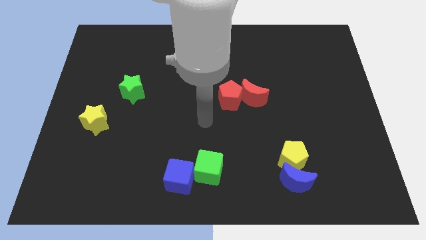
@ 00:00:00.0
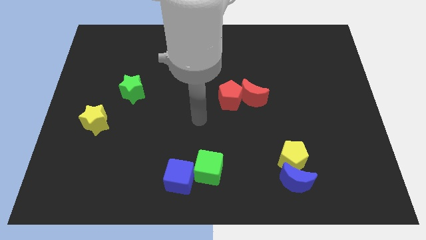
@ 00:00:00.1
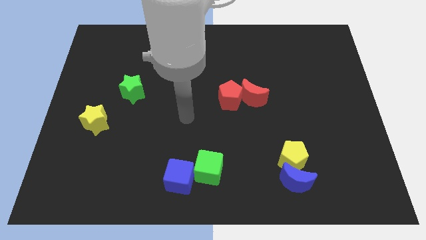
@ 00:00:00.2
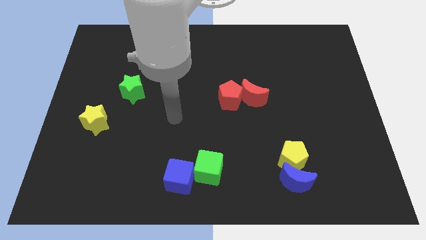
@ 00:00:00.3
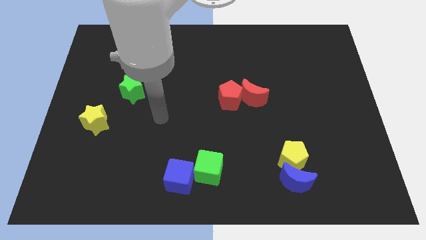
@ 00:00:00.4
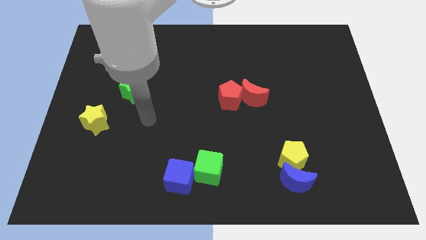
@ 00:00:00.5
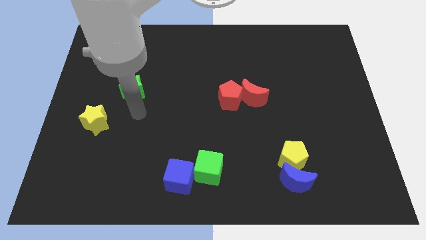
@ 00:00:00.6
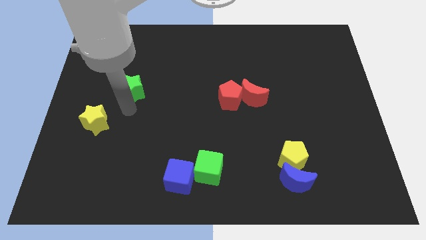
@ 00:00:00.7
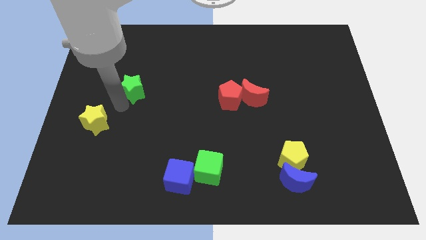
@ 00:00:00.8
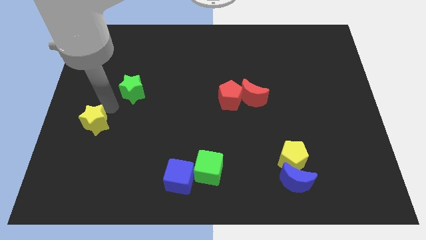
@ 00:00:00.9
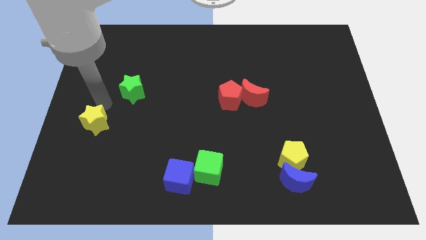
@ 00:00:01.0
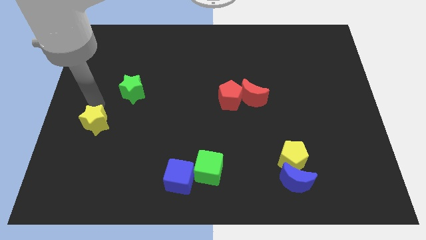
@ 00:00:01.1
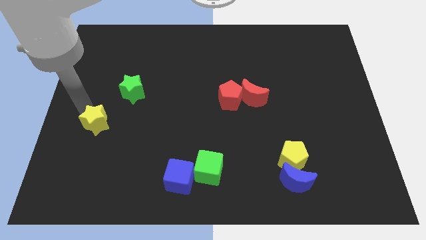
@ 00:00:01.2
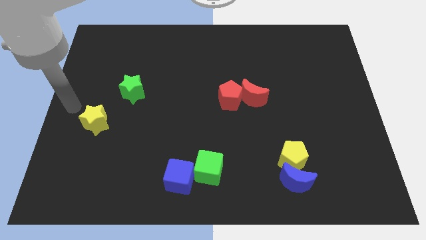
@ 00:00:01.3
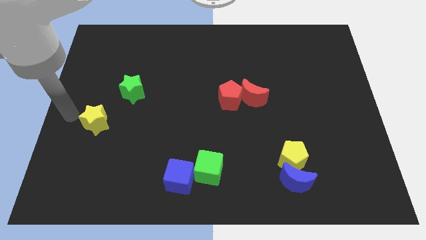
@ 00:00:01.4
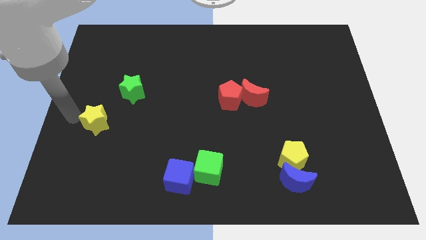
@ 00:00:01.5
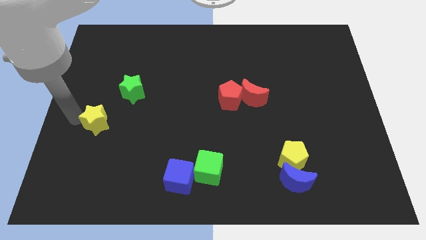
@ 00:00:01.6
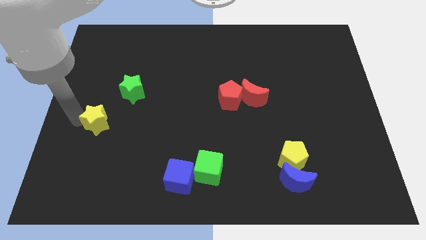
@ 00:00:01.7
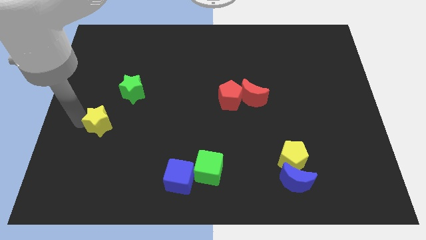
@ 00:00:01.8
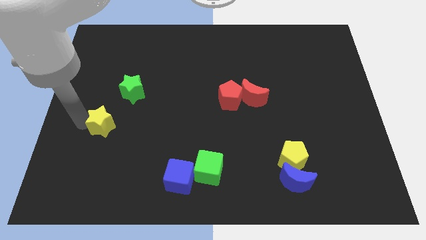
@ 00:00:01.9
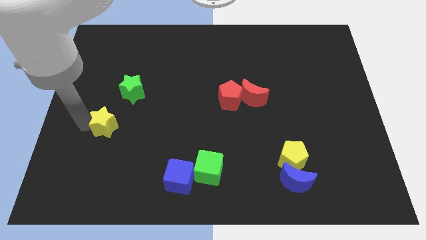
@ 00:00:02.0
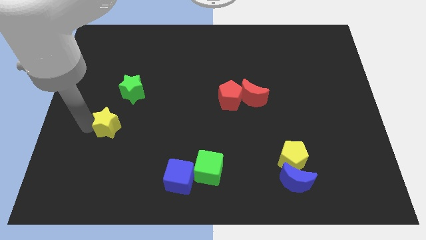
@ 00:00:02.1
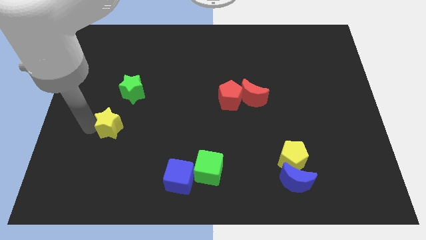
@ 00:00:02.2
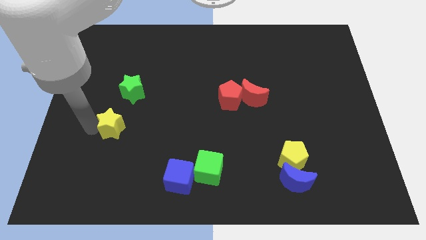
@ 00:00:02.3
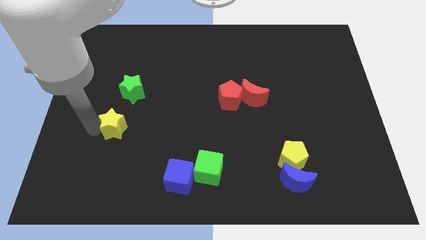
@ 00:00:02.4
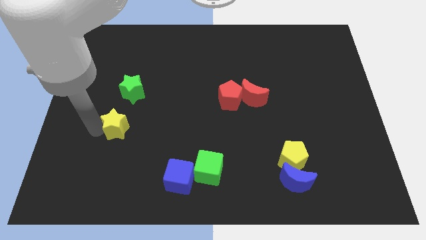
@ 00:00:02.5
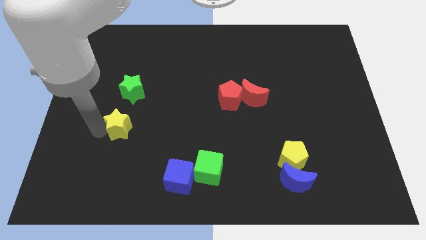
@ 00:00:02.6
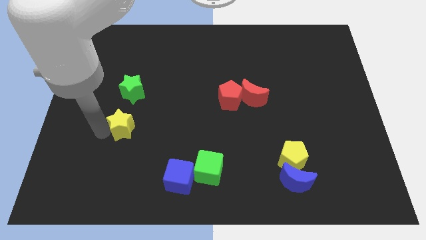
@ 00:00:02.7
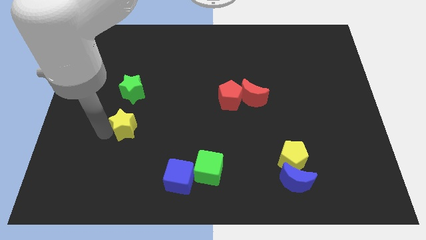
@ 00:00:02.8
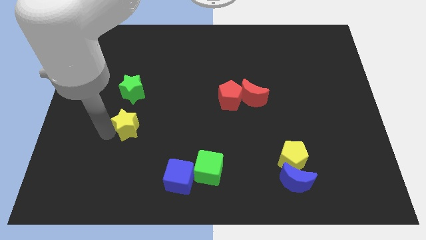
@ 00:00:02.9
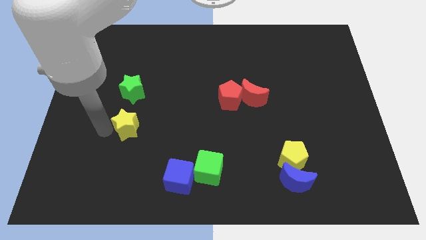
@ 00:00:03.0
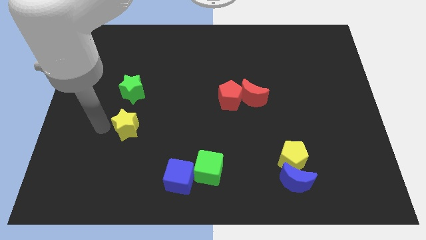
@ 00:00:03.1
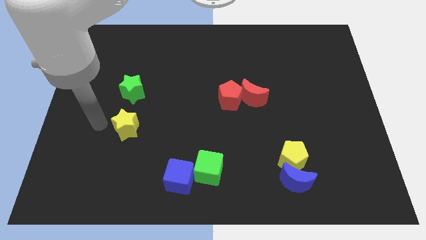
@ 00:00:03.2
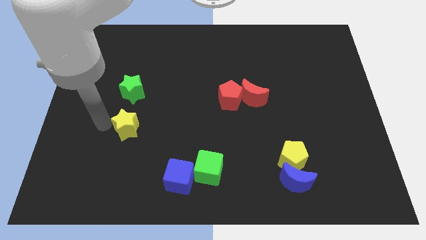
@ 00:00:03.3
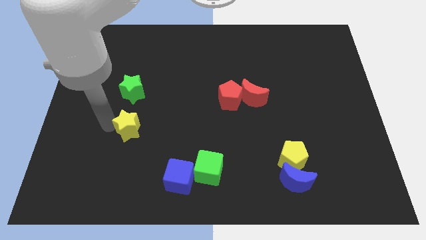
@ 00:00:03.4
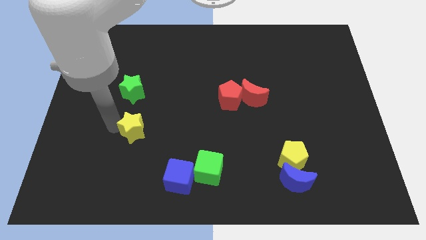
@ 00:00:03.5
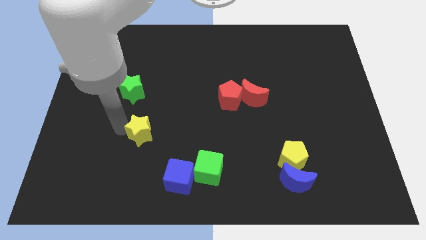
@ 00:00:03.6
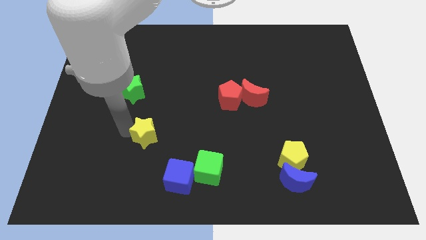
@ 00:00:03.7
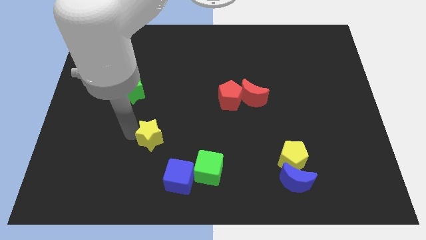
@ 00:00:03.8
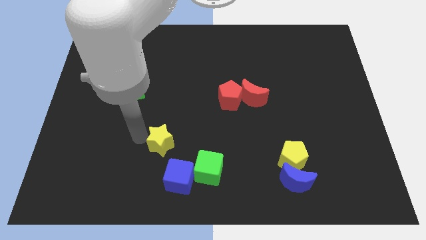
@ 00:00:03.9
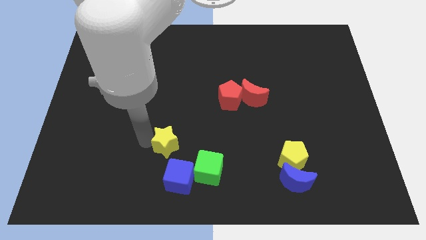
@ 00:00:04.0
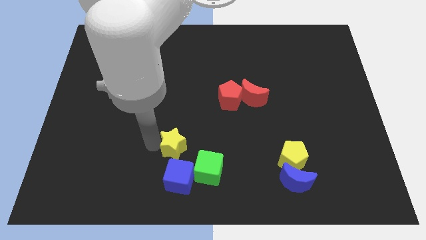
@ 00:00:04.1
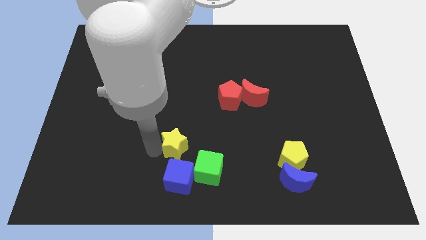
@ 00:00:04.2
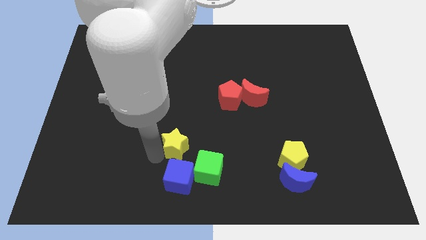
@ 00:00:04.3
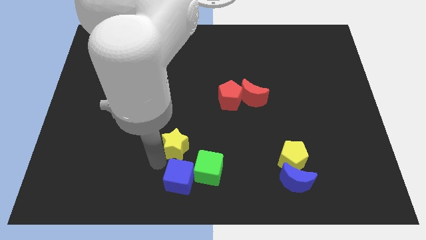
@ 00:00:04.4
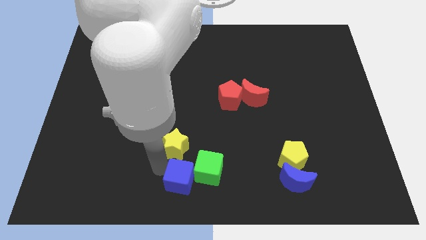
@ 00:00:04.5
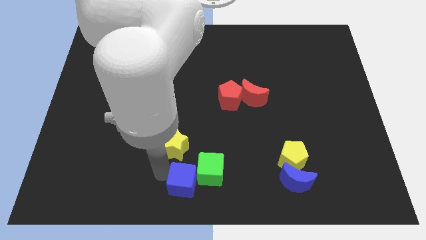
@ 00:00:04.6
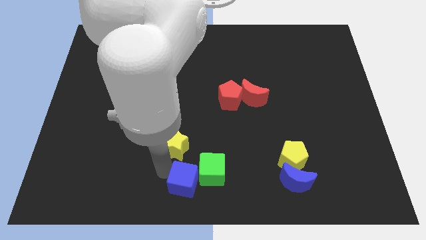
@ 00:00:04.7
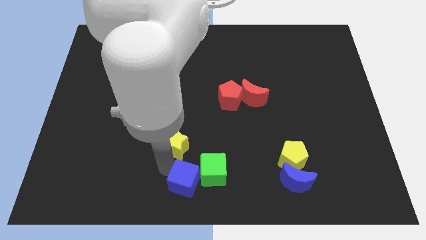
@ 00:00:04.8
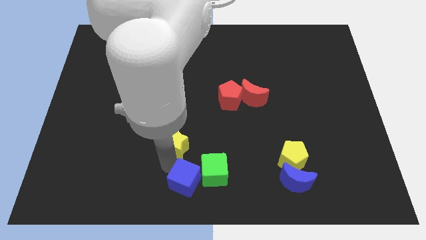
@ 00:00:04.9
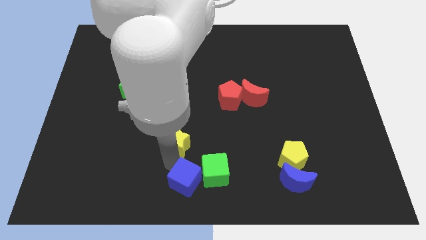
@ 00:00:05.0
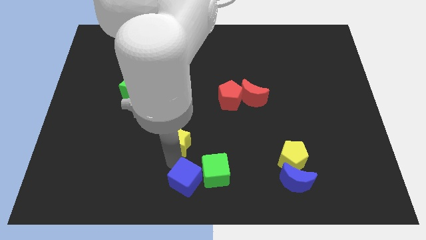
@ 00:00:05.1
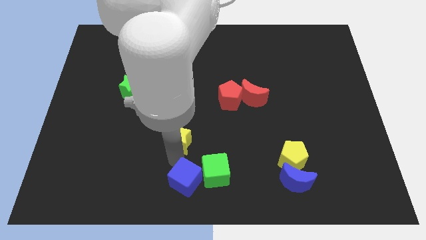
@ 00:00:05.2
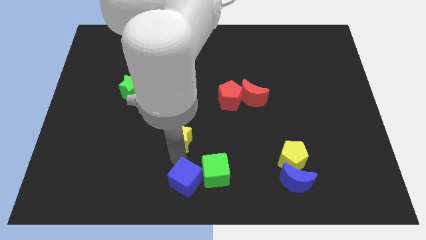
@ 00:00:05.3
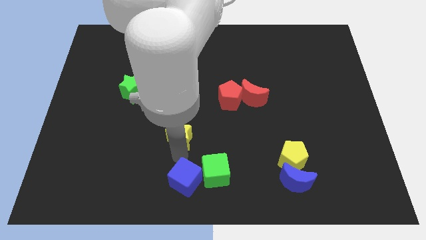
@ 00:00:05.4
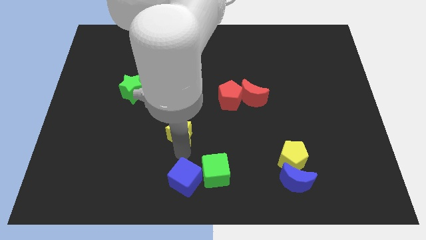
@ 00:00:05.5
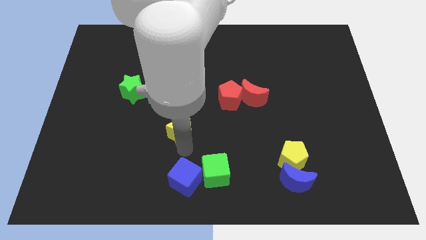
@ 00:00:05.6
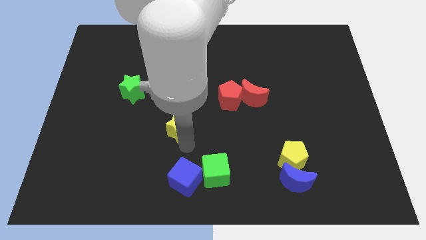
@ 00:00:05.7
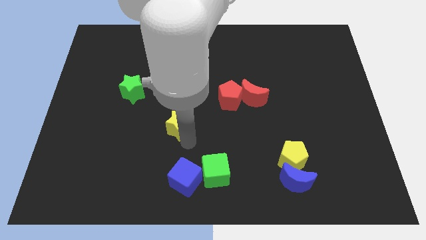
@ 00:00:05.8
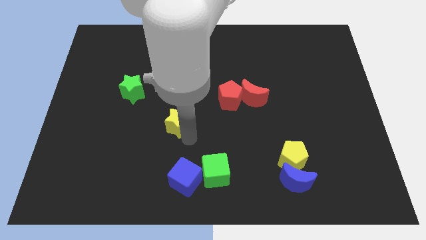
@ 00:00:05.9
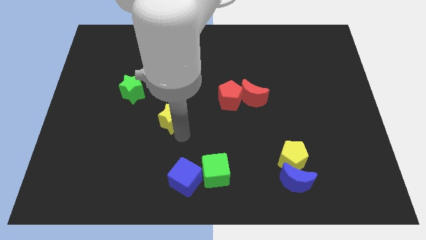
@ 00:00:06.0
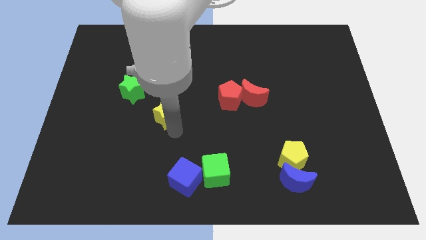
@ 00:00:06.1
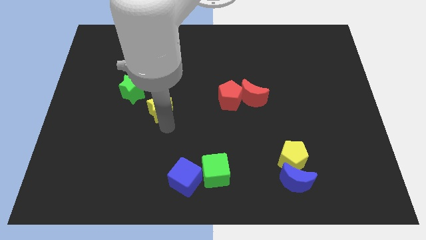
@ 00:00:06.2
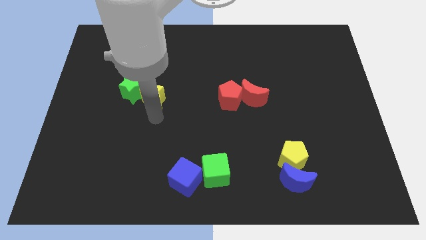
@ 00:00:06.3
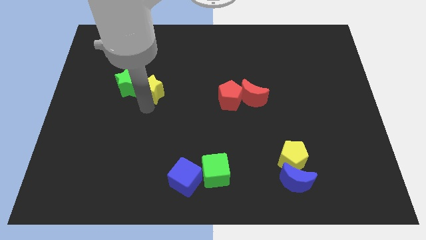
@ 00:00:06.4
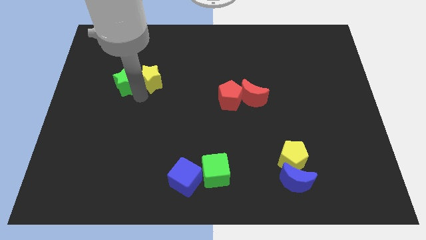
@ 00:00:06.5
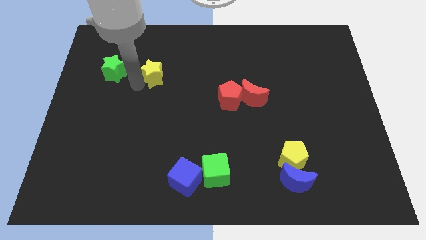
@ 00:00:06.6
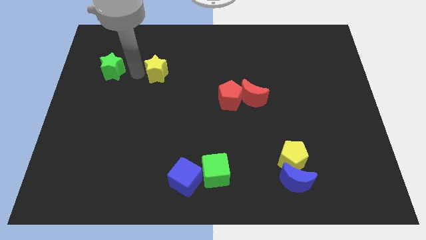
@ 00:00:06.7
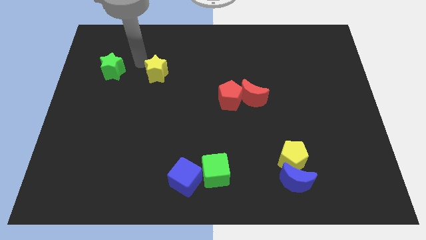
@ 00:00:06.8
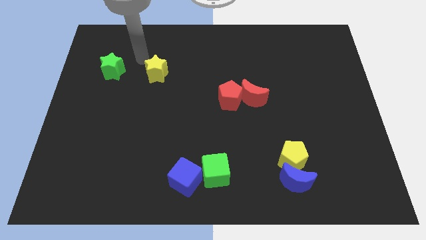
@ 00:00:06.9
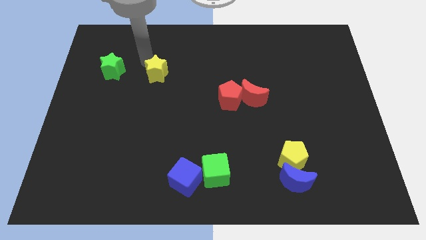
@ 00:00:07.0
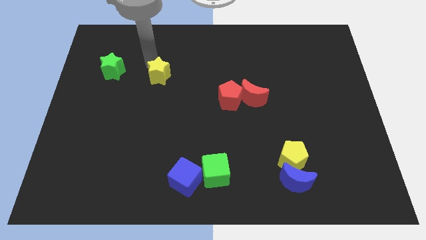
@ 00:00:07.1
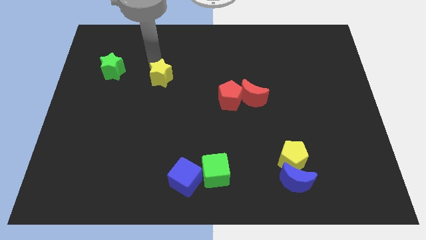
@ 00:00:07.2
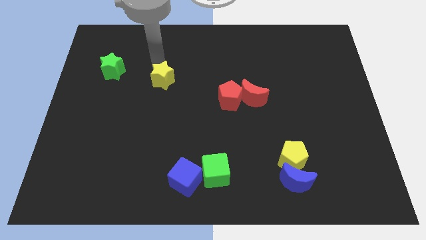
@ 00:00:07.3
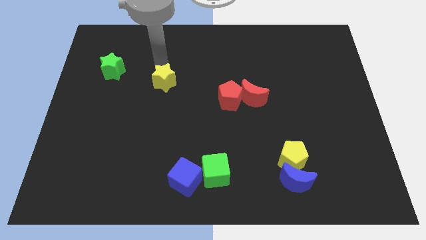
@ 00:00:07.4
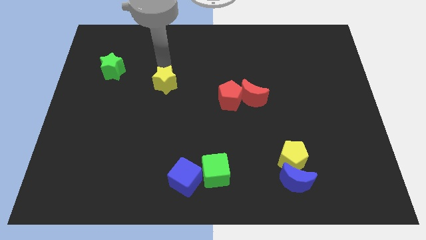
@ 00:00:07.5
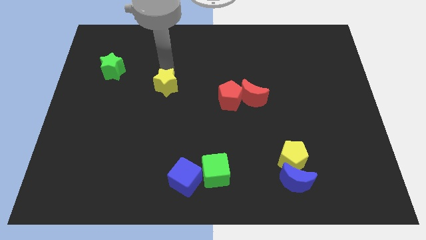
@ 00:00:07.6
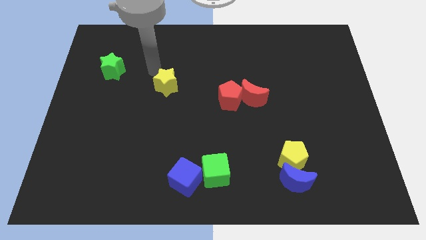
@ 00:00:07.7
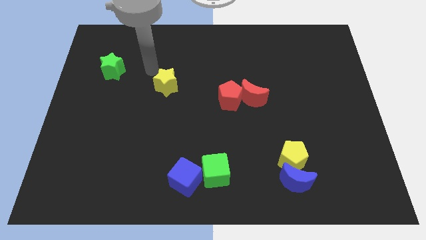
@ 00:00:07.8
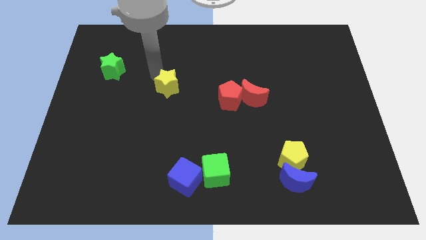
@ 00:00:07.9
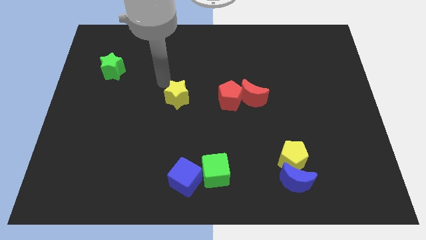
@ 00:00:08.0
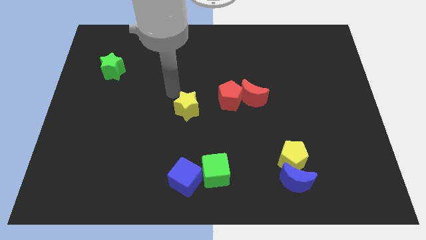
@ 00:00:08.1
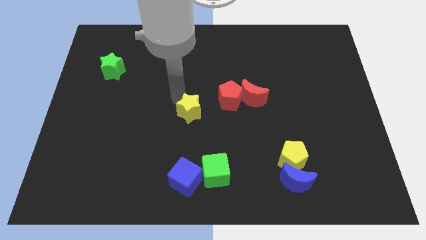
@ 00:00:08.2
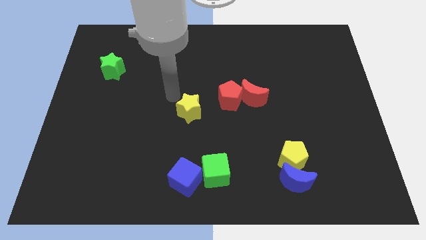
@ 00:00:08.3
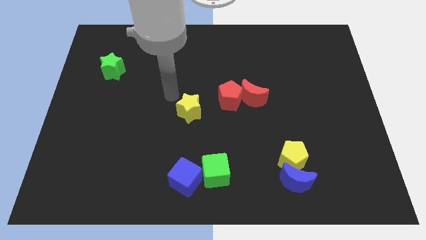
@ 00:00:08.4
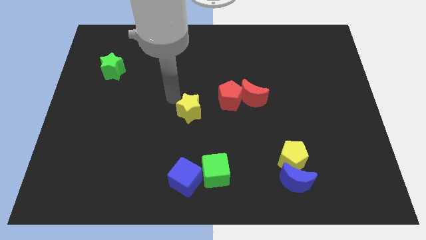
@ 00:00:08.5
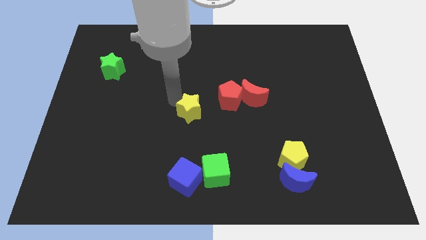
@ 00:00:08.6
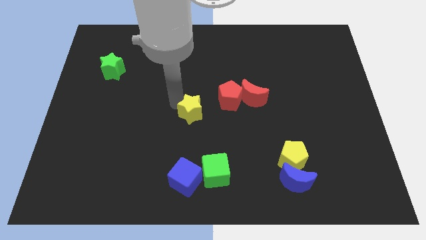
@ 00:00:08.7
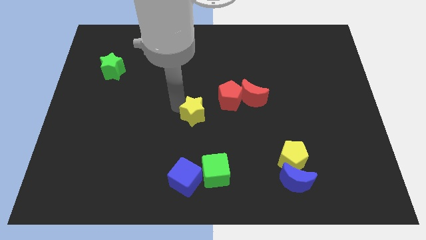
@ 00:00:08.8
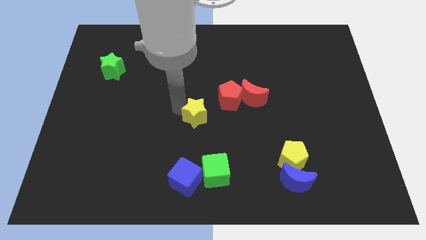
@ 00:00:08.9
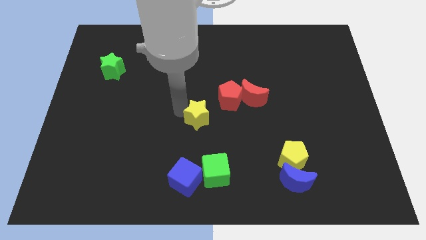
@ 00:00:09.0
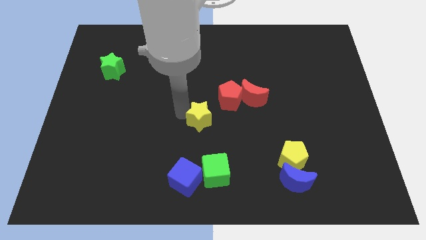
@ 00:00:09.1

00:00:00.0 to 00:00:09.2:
move the yellow star above the green cube
